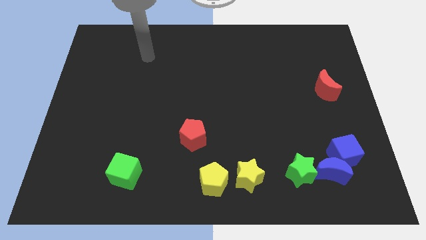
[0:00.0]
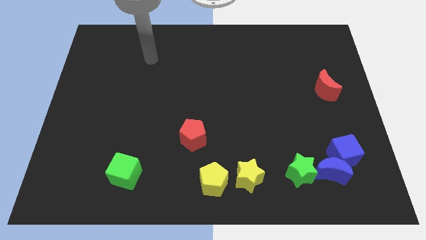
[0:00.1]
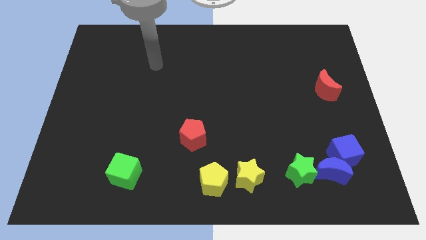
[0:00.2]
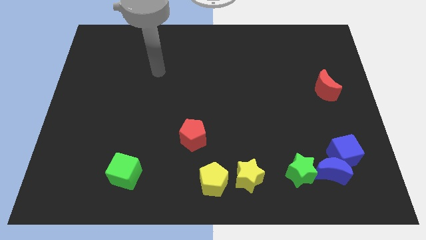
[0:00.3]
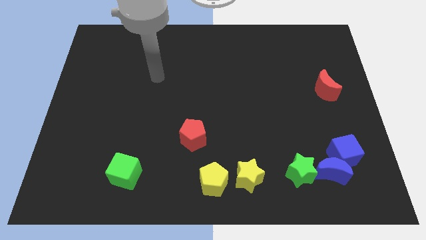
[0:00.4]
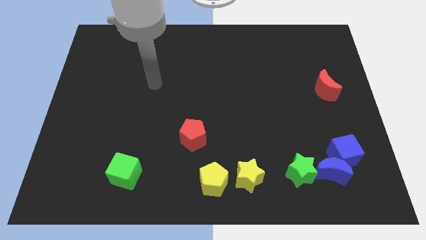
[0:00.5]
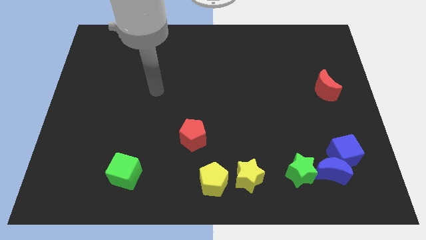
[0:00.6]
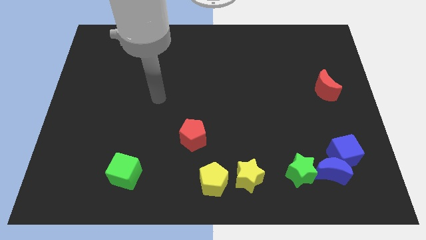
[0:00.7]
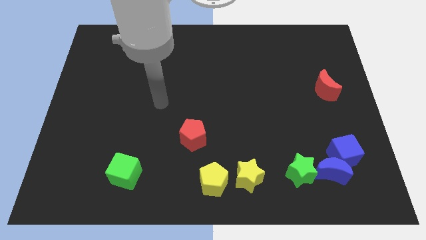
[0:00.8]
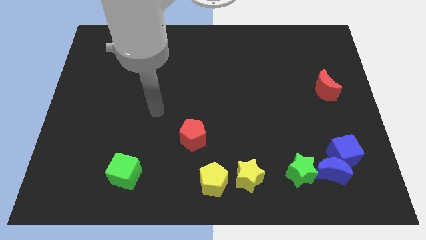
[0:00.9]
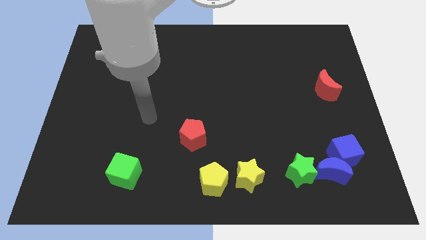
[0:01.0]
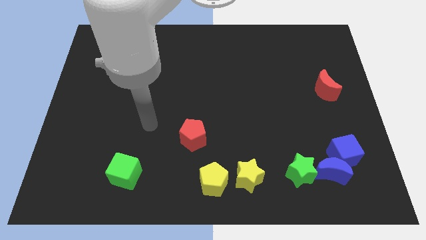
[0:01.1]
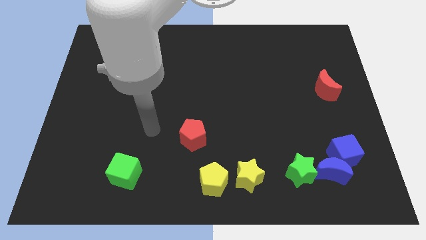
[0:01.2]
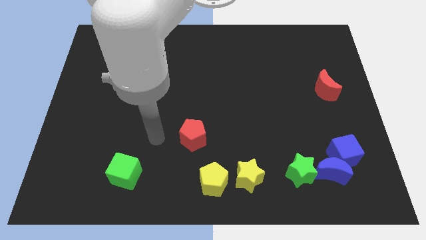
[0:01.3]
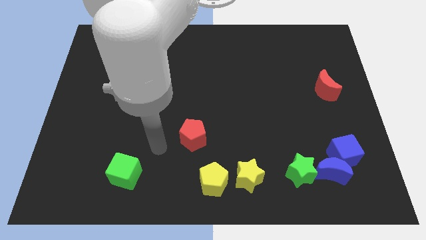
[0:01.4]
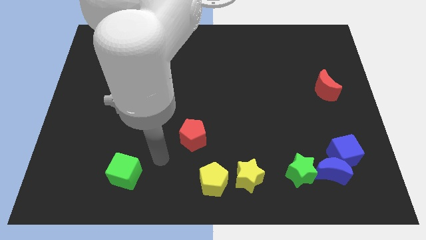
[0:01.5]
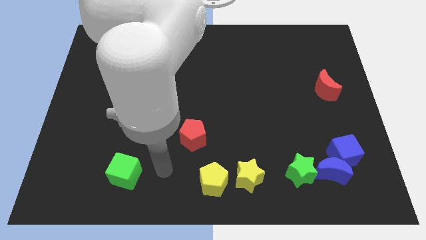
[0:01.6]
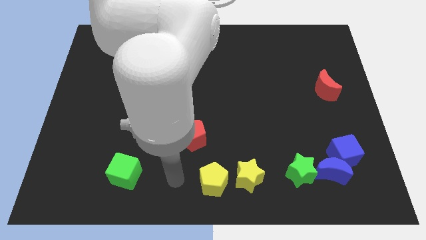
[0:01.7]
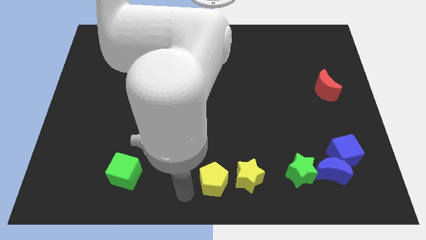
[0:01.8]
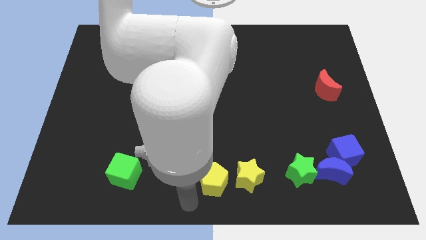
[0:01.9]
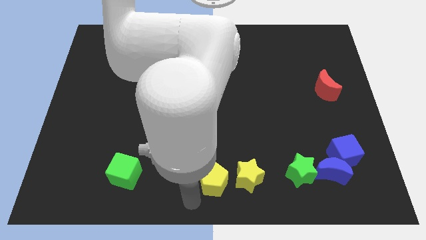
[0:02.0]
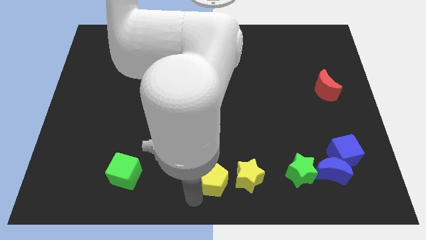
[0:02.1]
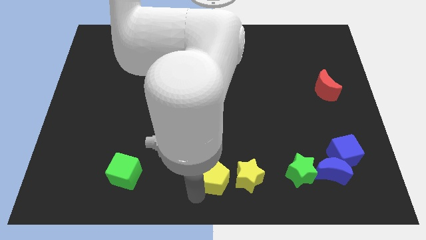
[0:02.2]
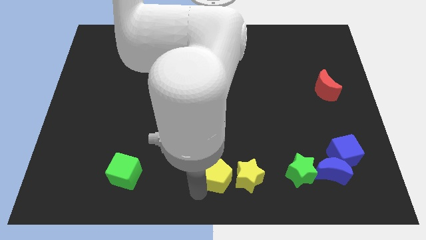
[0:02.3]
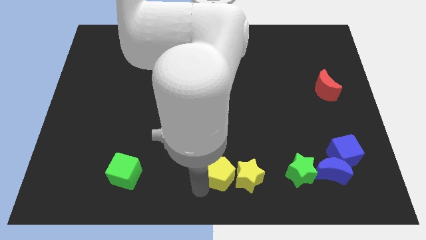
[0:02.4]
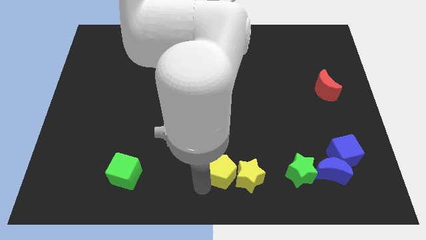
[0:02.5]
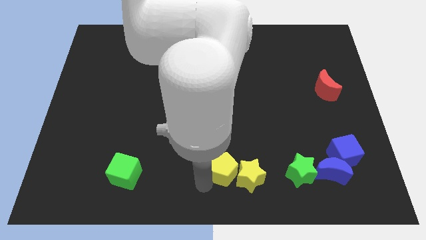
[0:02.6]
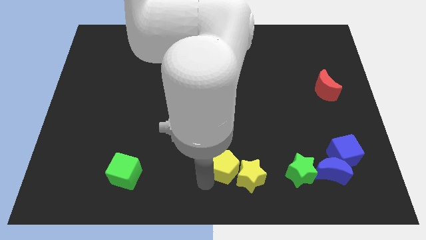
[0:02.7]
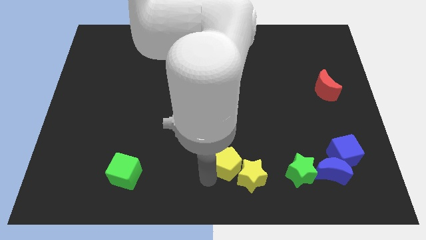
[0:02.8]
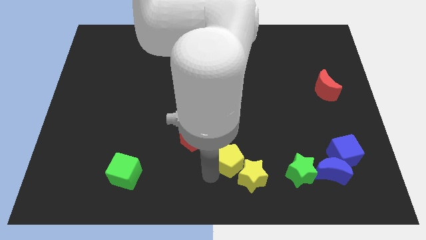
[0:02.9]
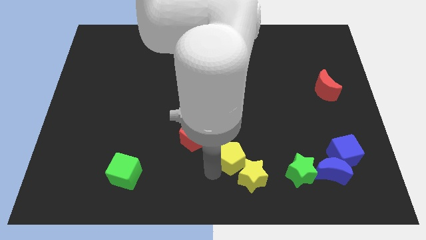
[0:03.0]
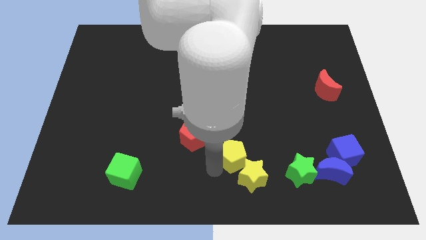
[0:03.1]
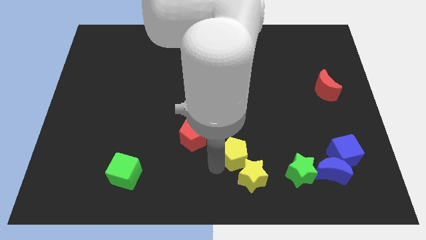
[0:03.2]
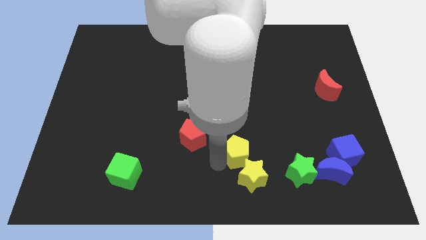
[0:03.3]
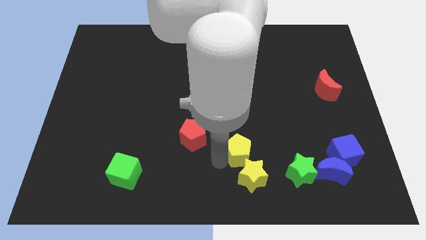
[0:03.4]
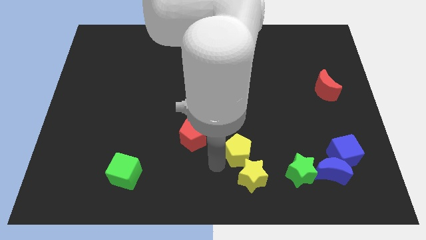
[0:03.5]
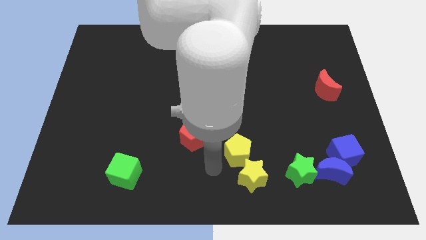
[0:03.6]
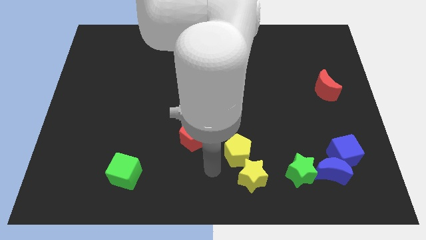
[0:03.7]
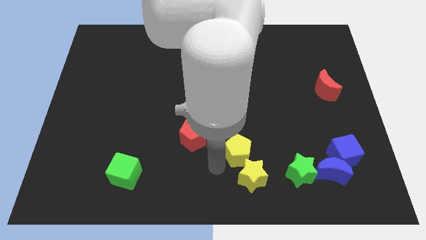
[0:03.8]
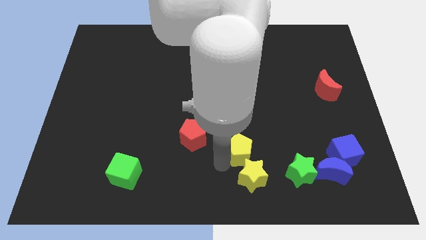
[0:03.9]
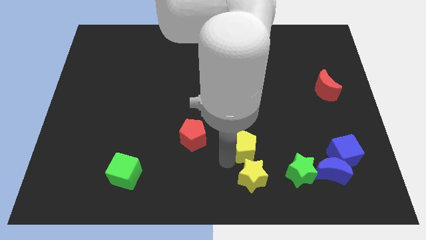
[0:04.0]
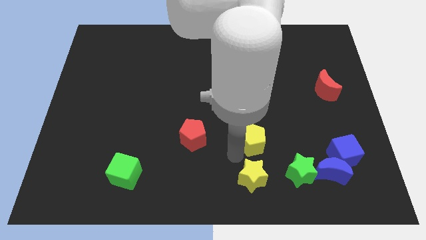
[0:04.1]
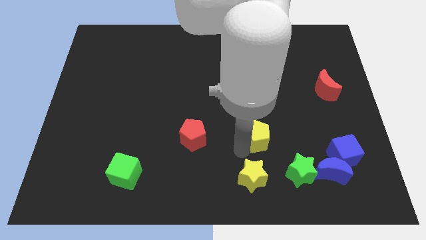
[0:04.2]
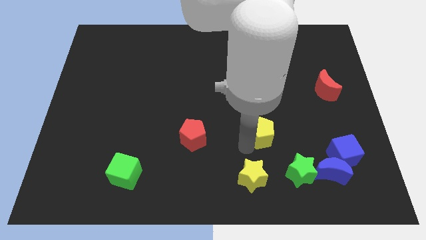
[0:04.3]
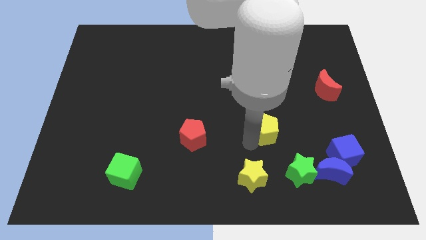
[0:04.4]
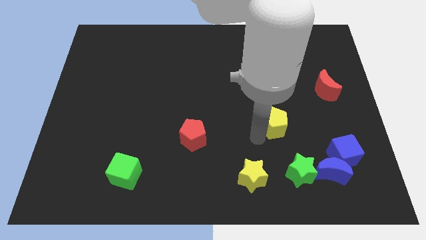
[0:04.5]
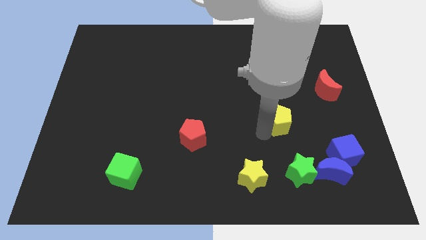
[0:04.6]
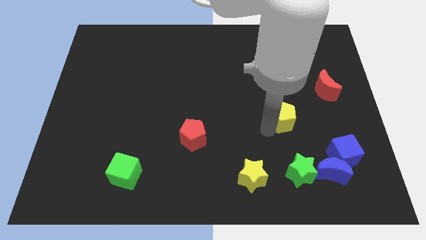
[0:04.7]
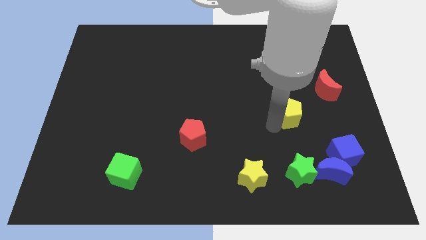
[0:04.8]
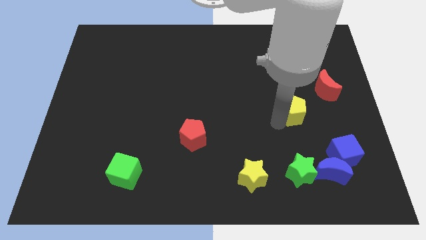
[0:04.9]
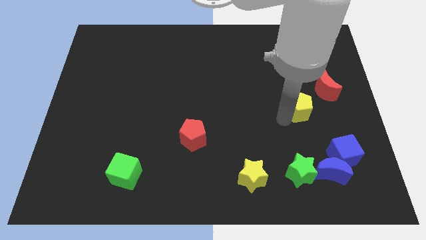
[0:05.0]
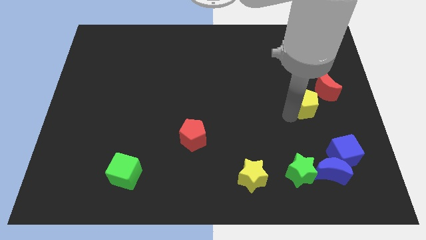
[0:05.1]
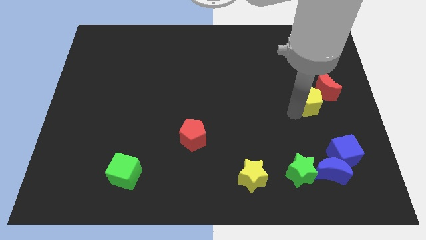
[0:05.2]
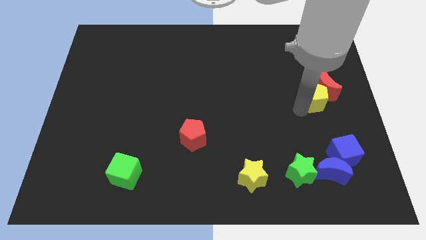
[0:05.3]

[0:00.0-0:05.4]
slide the yellow pentagon next to the red moon
